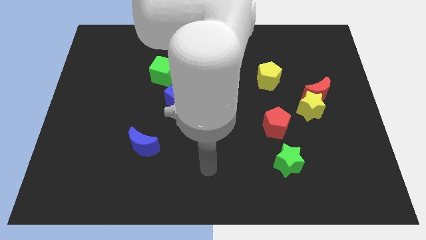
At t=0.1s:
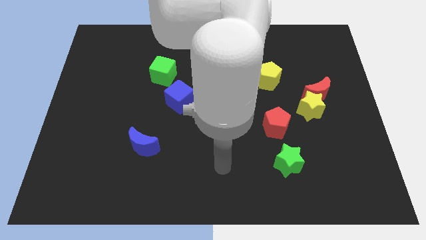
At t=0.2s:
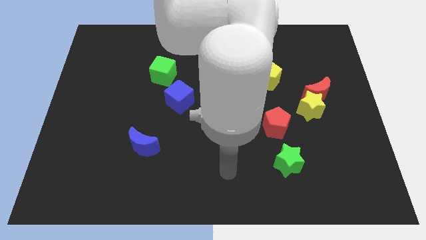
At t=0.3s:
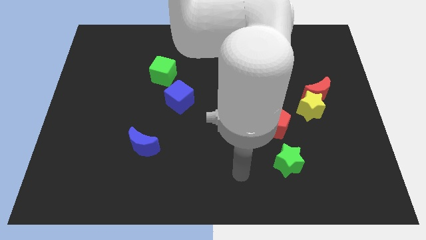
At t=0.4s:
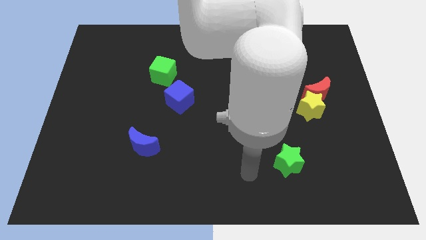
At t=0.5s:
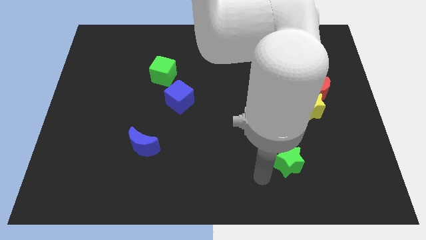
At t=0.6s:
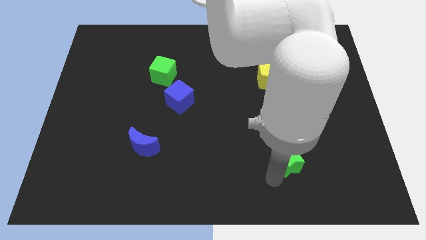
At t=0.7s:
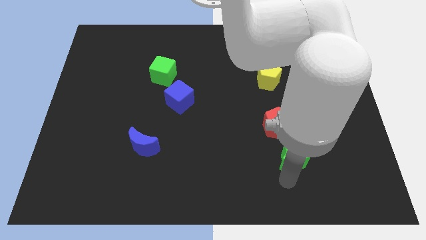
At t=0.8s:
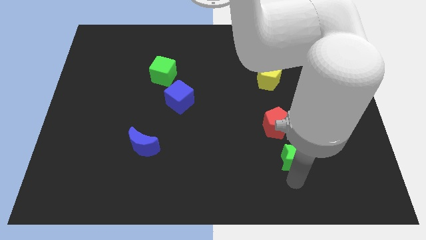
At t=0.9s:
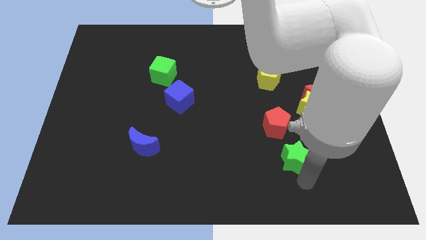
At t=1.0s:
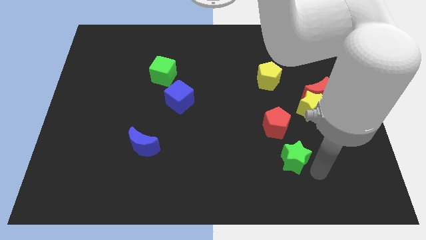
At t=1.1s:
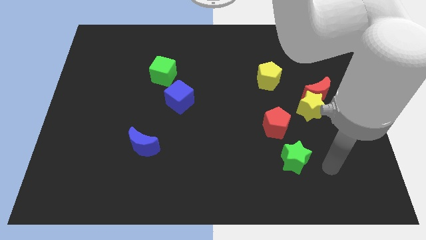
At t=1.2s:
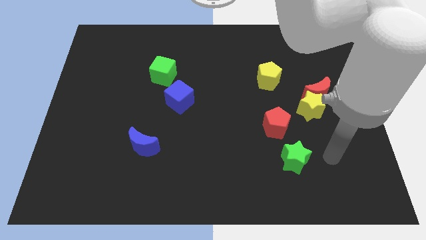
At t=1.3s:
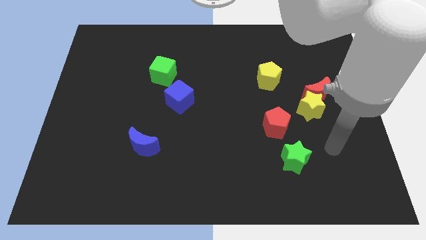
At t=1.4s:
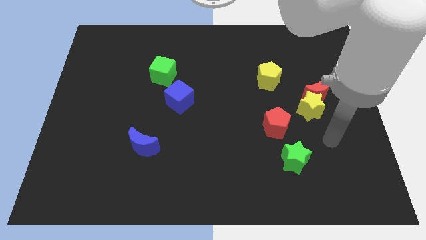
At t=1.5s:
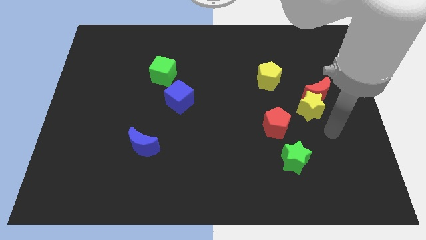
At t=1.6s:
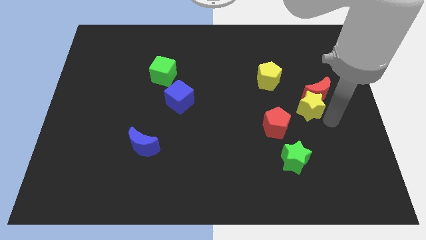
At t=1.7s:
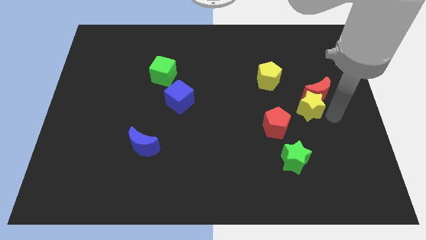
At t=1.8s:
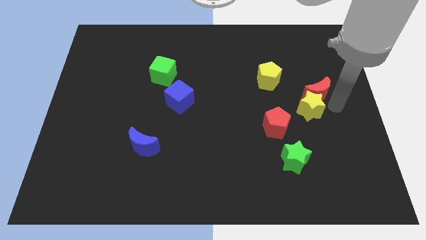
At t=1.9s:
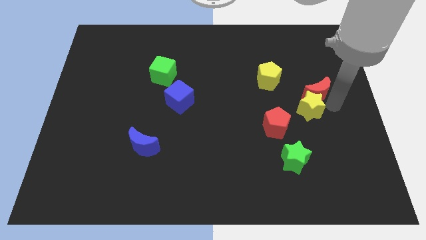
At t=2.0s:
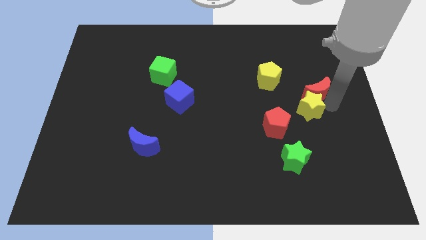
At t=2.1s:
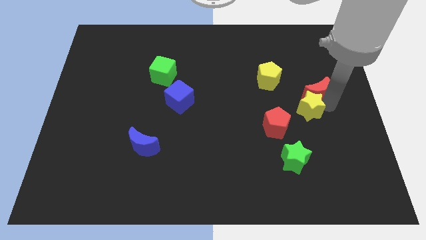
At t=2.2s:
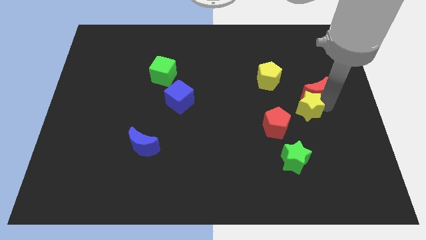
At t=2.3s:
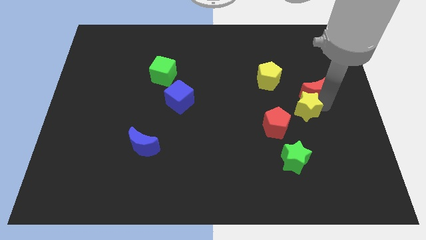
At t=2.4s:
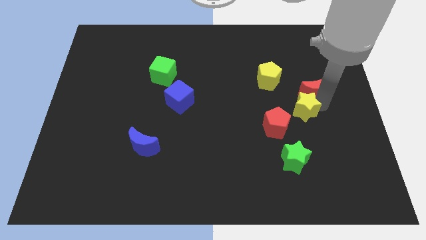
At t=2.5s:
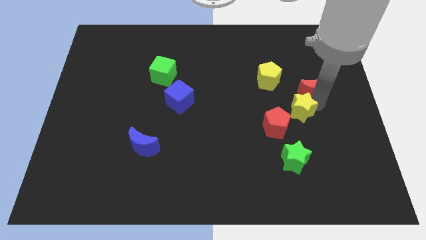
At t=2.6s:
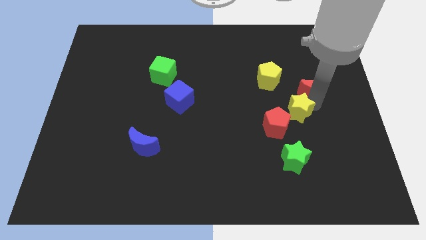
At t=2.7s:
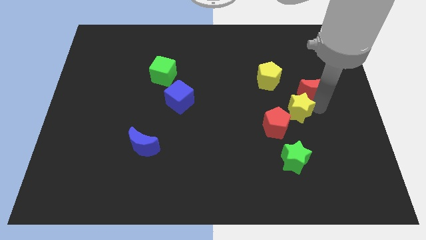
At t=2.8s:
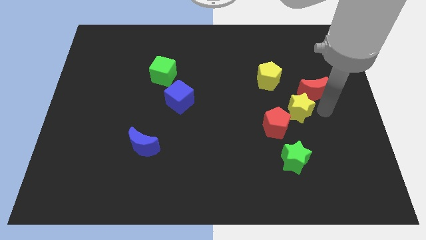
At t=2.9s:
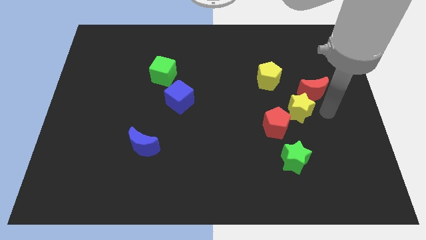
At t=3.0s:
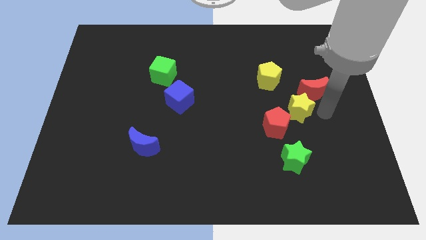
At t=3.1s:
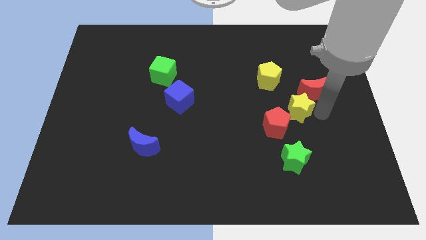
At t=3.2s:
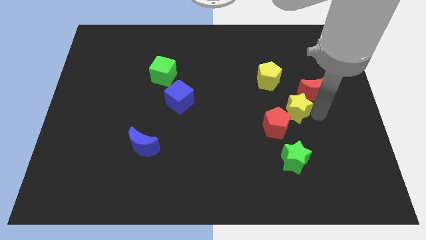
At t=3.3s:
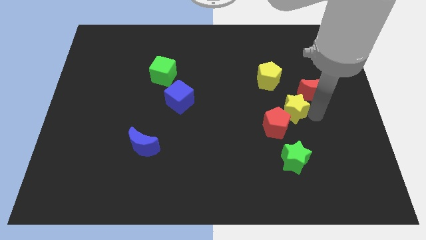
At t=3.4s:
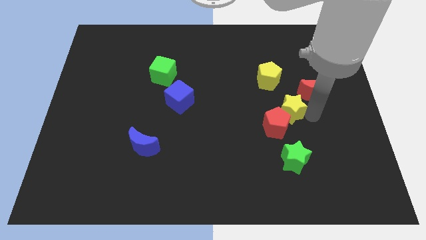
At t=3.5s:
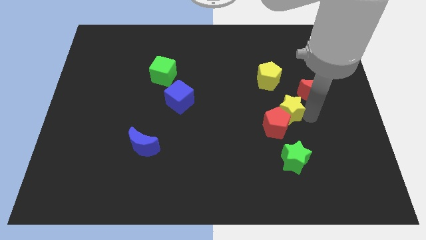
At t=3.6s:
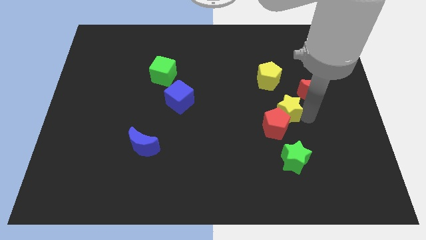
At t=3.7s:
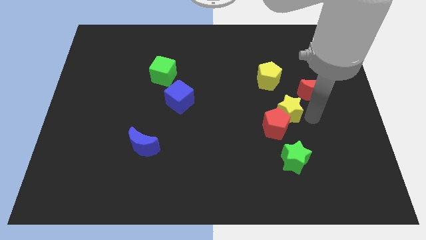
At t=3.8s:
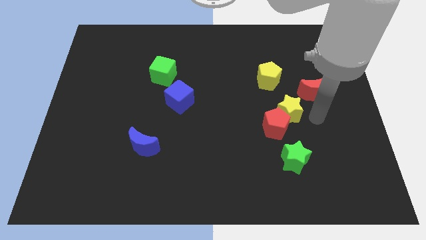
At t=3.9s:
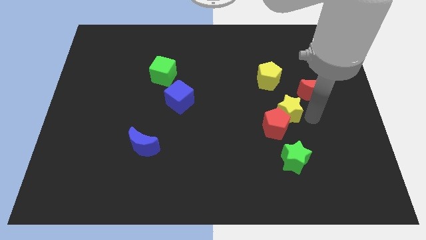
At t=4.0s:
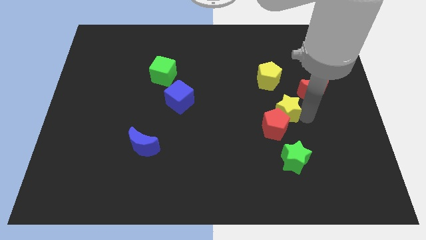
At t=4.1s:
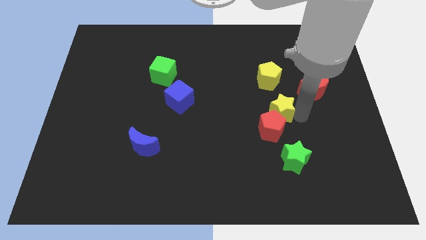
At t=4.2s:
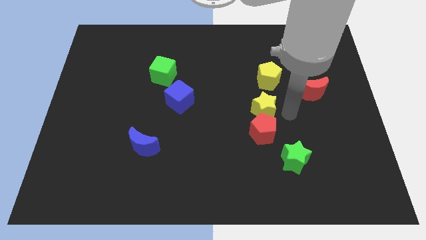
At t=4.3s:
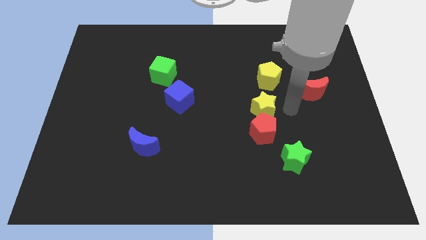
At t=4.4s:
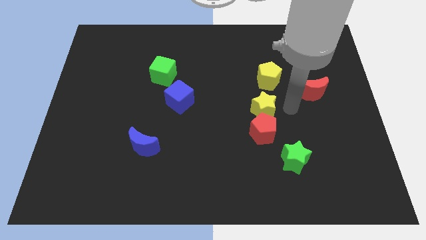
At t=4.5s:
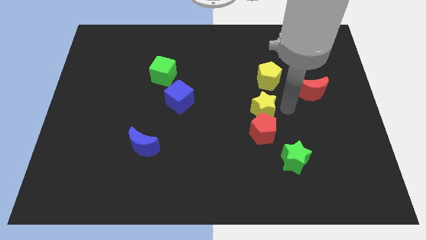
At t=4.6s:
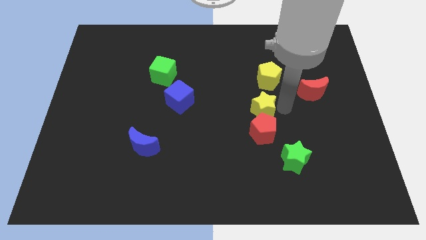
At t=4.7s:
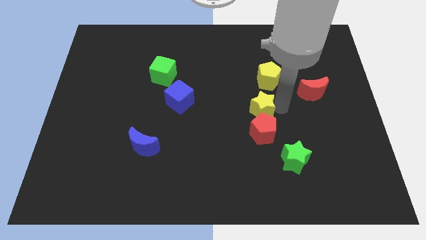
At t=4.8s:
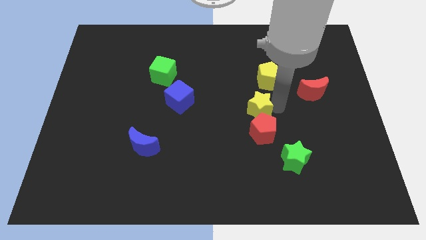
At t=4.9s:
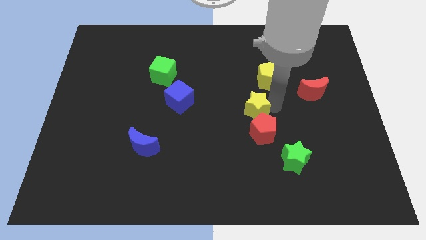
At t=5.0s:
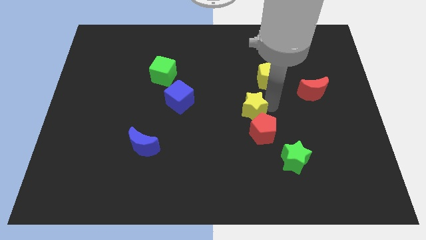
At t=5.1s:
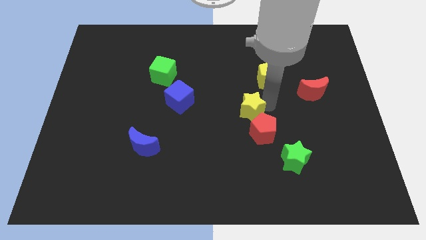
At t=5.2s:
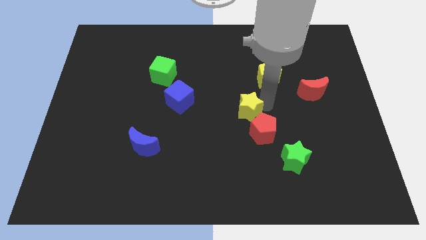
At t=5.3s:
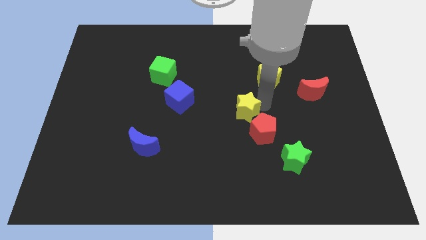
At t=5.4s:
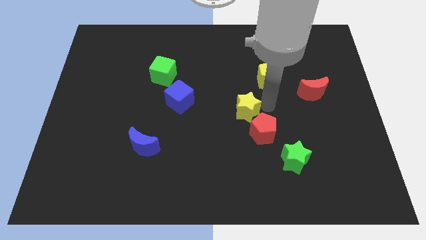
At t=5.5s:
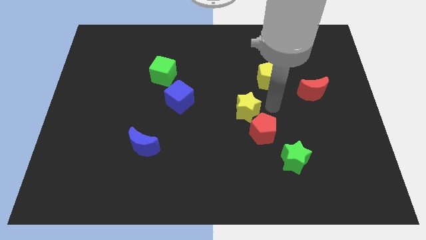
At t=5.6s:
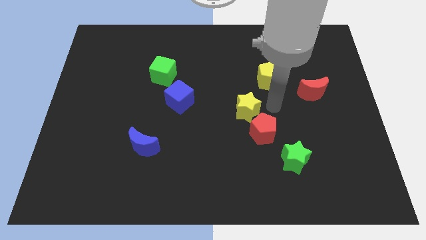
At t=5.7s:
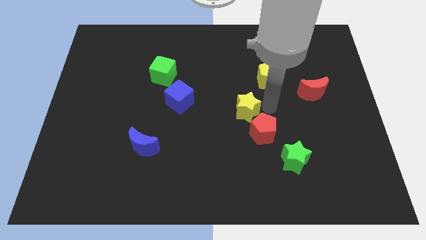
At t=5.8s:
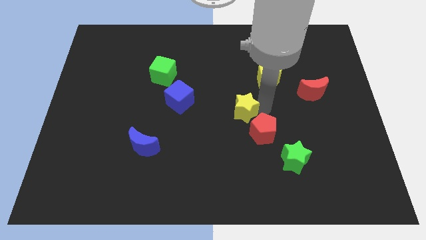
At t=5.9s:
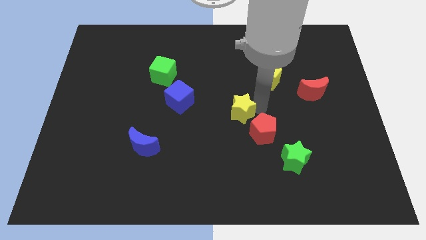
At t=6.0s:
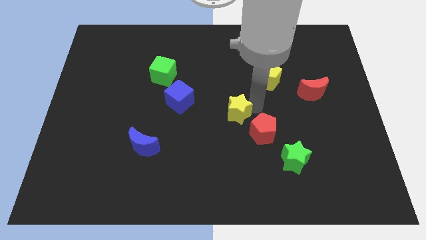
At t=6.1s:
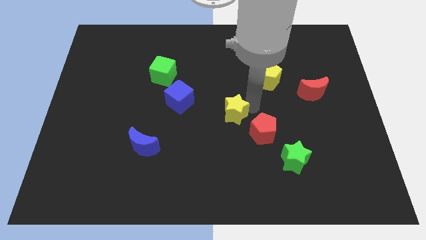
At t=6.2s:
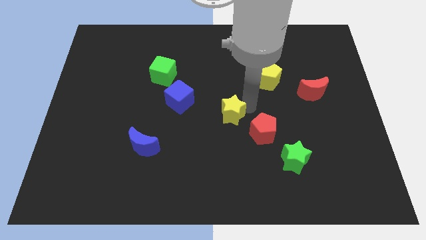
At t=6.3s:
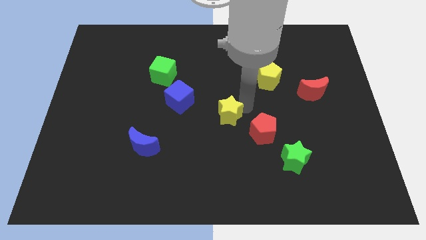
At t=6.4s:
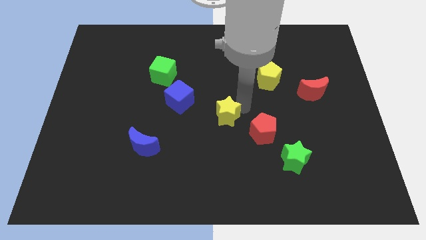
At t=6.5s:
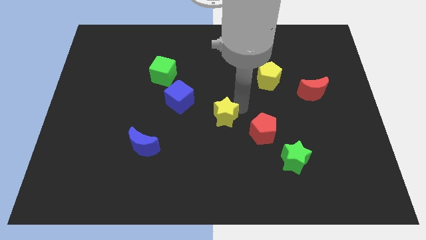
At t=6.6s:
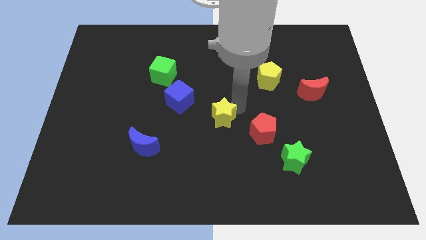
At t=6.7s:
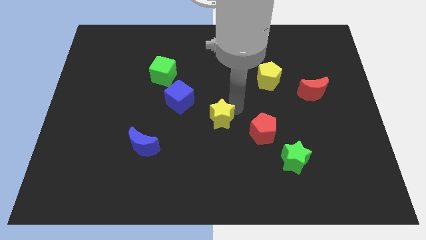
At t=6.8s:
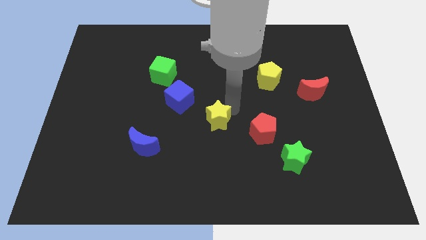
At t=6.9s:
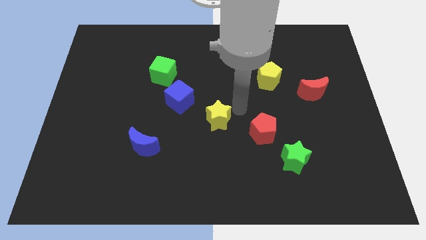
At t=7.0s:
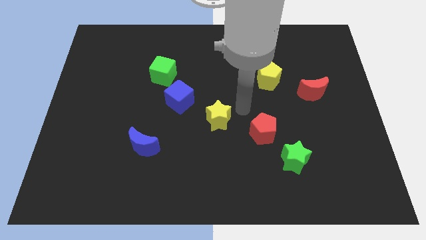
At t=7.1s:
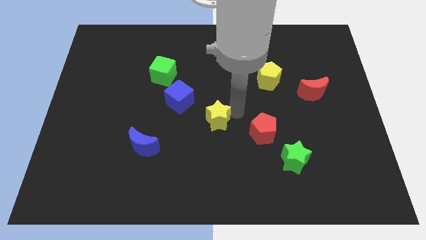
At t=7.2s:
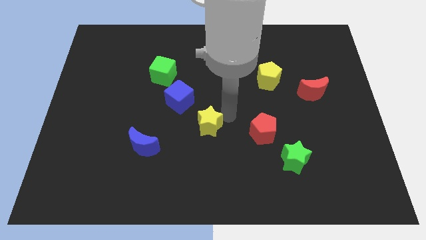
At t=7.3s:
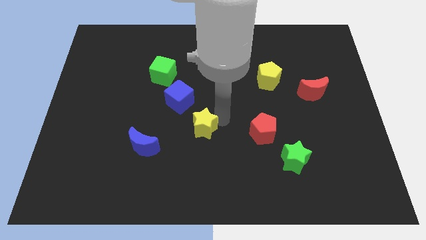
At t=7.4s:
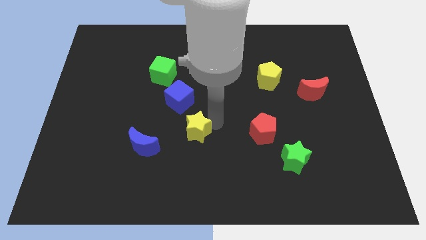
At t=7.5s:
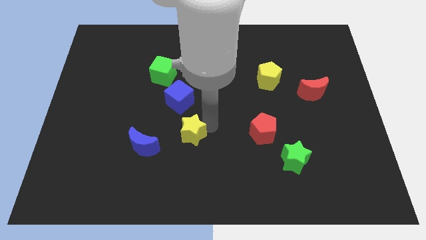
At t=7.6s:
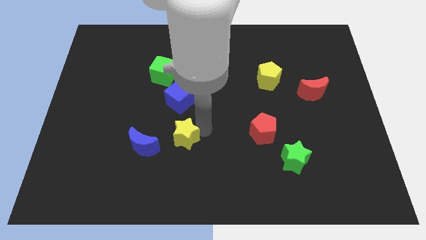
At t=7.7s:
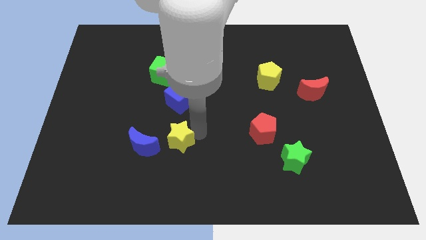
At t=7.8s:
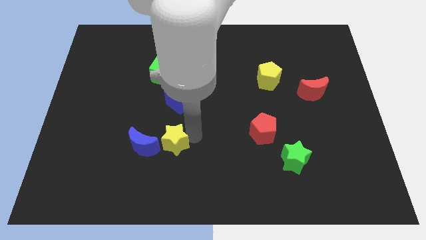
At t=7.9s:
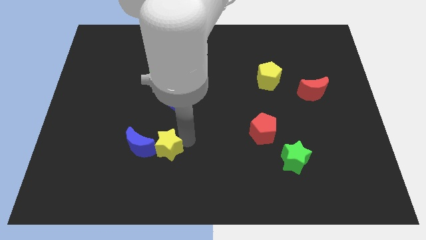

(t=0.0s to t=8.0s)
move the yellow star close to the blue moon
